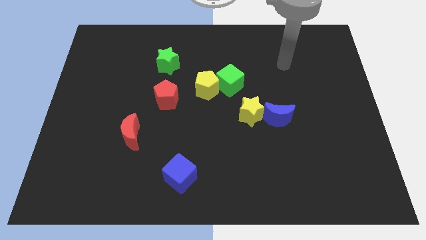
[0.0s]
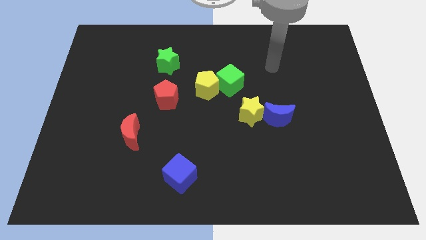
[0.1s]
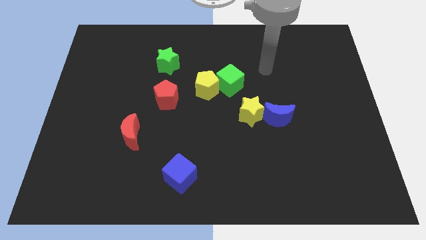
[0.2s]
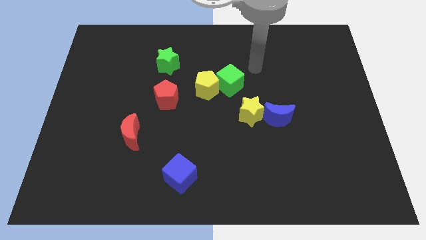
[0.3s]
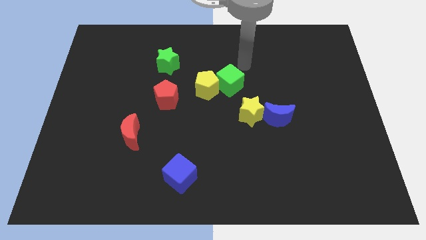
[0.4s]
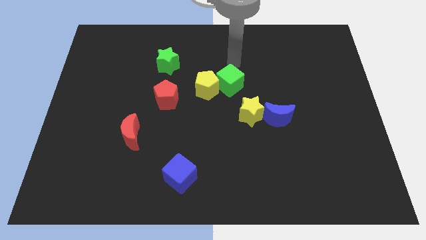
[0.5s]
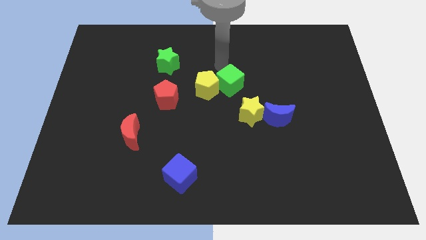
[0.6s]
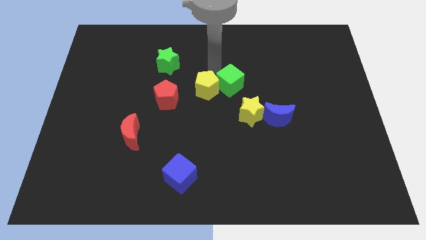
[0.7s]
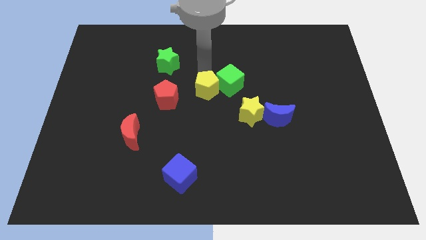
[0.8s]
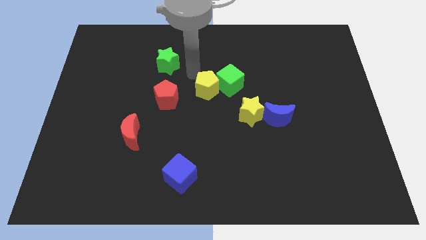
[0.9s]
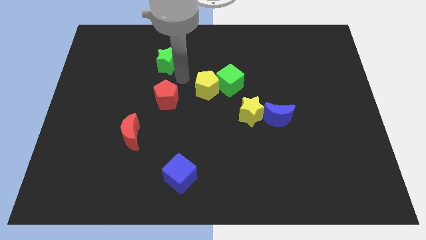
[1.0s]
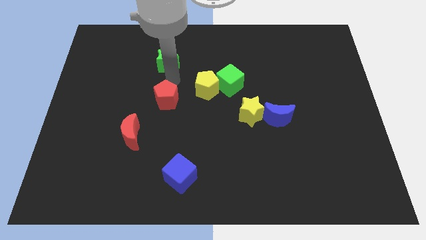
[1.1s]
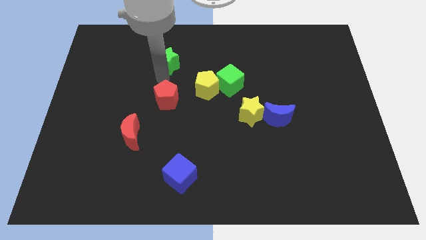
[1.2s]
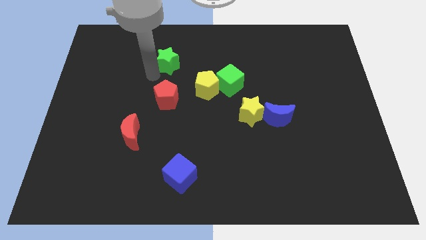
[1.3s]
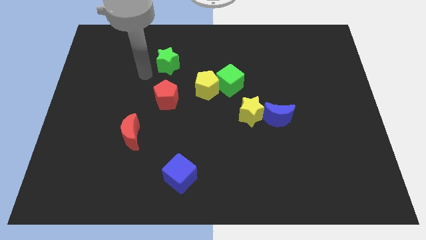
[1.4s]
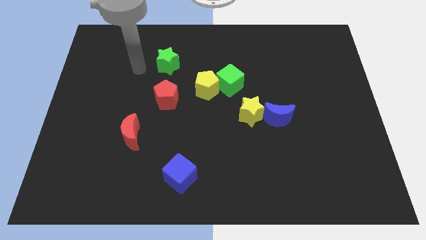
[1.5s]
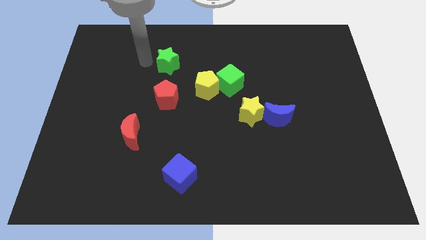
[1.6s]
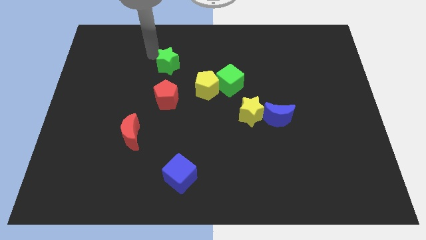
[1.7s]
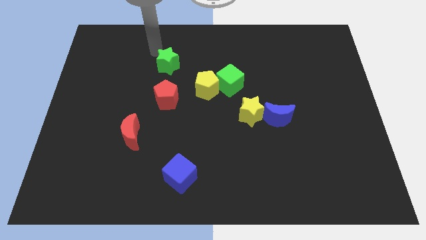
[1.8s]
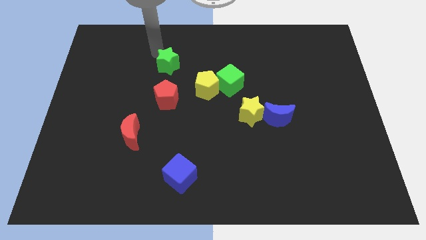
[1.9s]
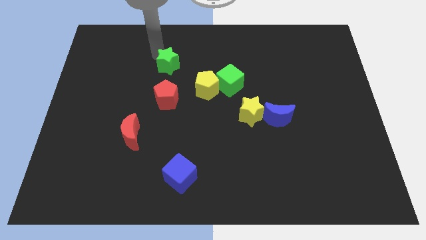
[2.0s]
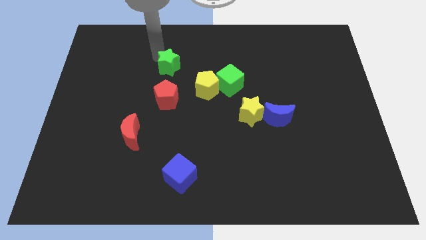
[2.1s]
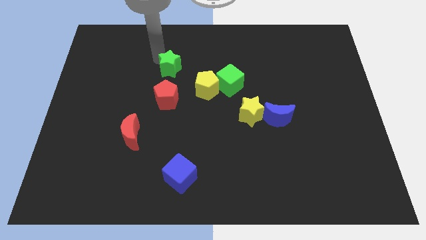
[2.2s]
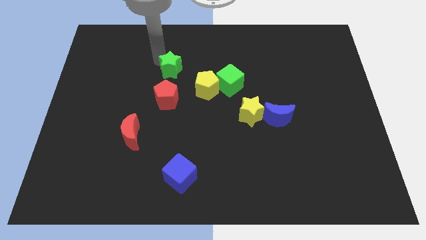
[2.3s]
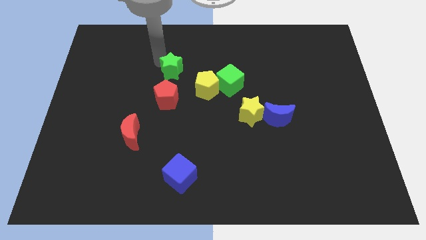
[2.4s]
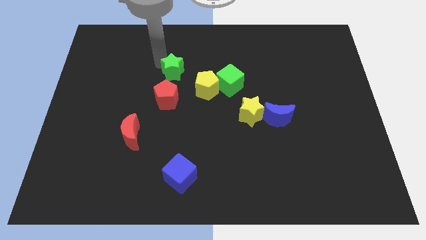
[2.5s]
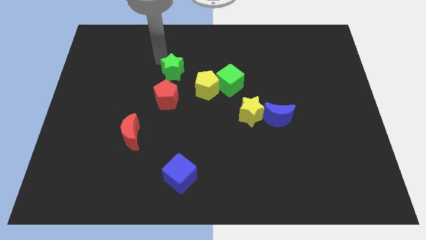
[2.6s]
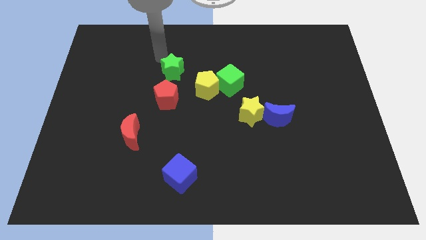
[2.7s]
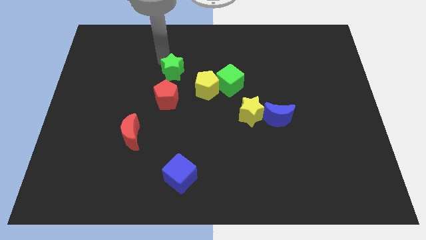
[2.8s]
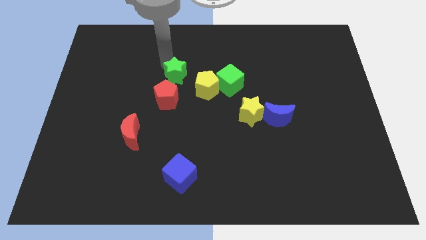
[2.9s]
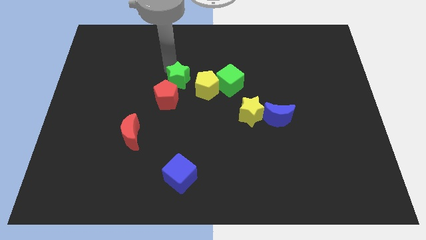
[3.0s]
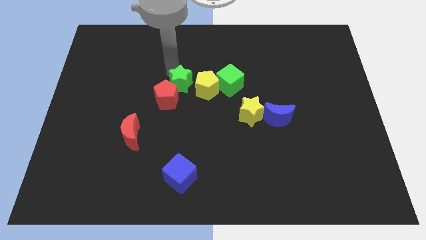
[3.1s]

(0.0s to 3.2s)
slide the green star slightly downwards and to the right

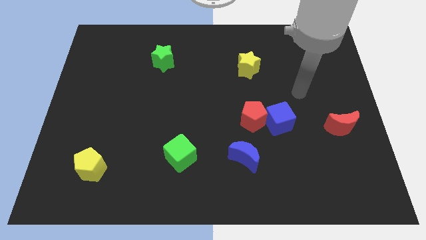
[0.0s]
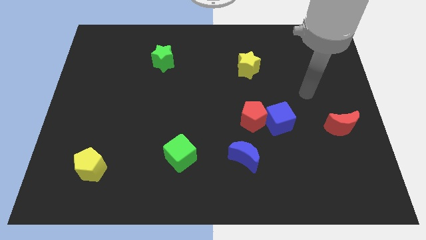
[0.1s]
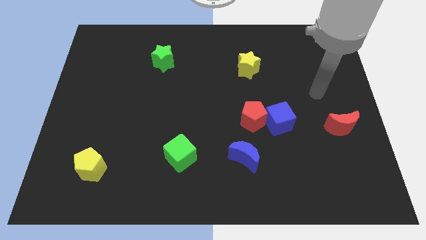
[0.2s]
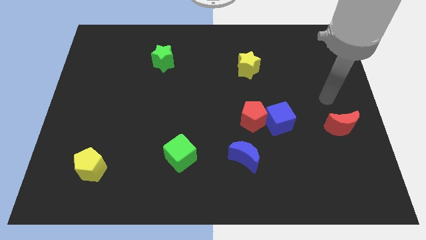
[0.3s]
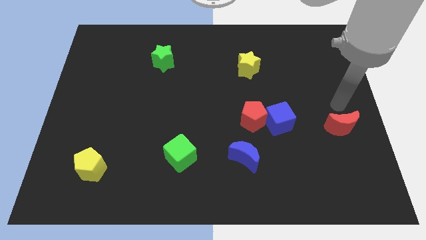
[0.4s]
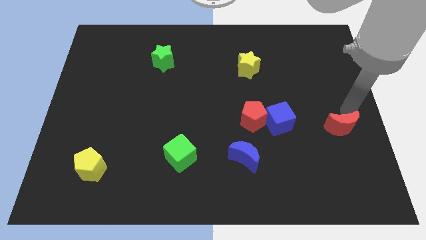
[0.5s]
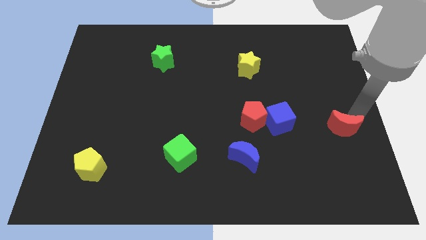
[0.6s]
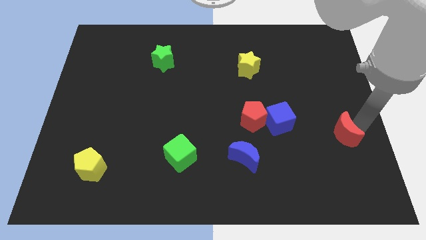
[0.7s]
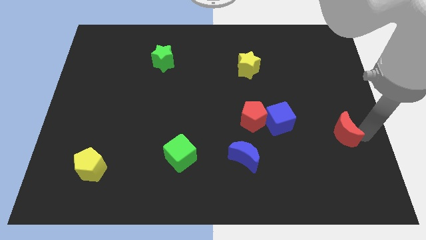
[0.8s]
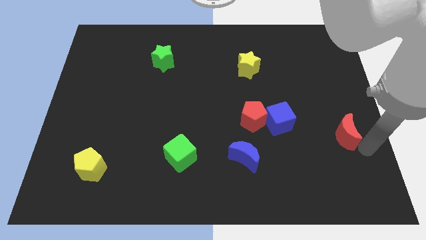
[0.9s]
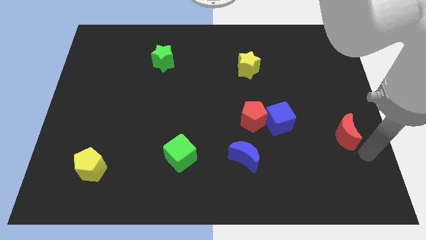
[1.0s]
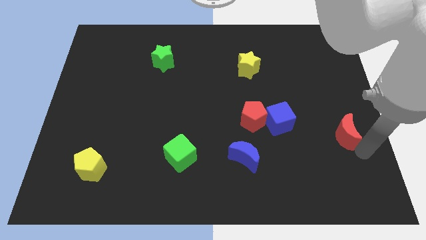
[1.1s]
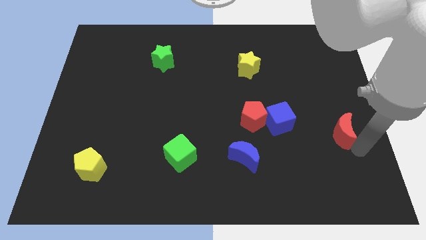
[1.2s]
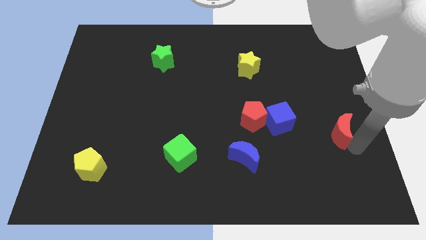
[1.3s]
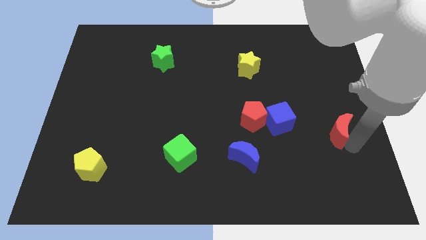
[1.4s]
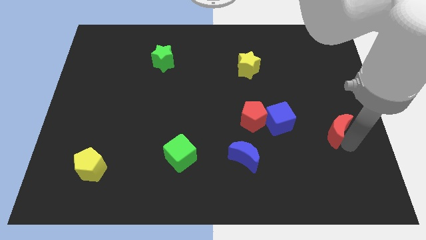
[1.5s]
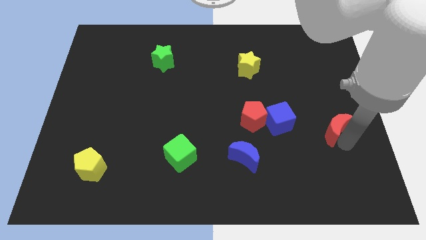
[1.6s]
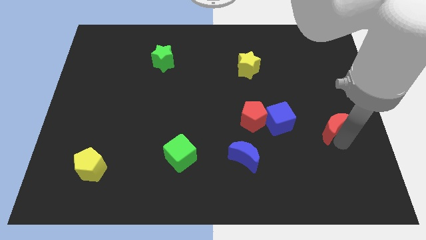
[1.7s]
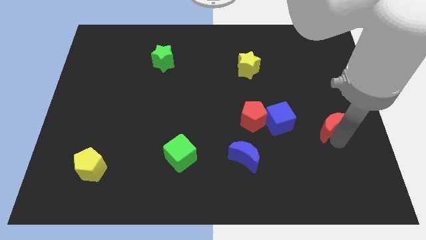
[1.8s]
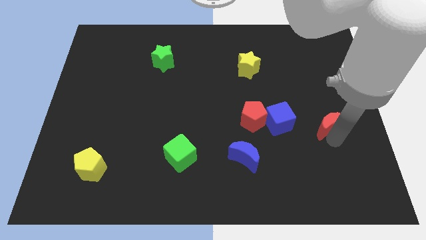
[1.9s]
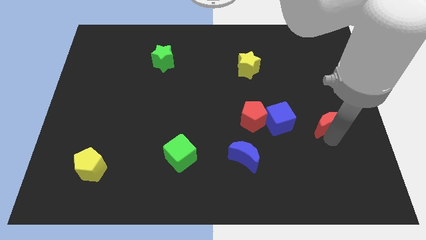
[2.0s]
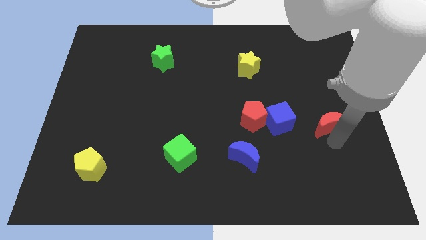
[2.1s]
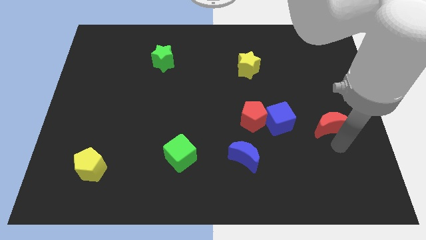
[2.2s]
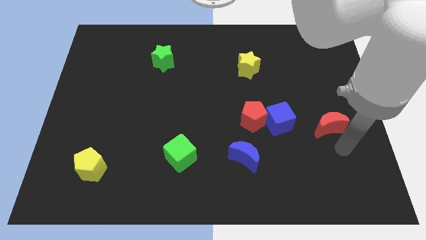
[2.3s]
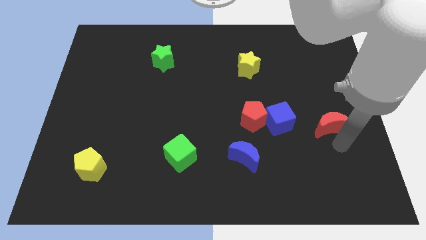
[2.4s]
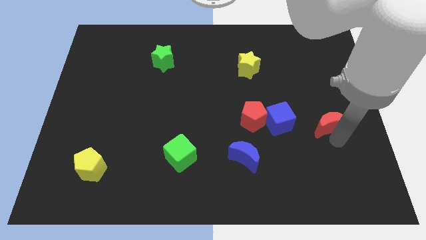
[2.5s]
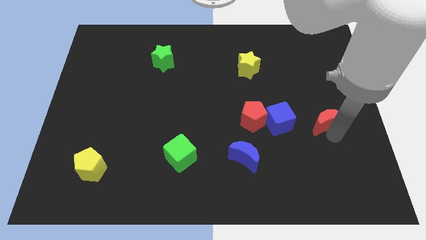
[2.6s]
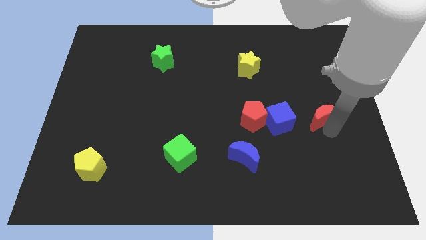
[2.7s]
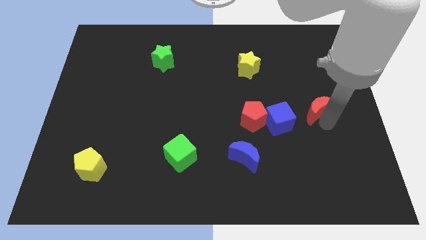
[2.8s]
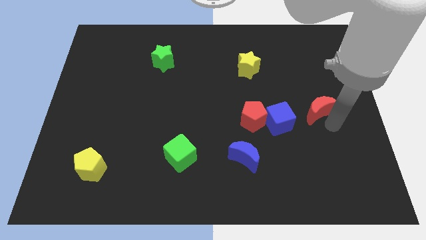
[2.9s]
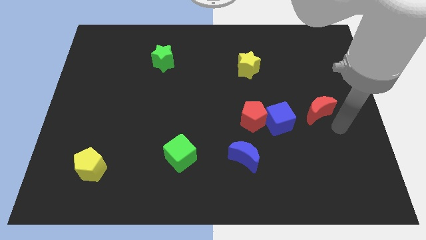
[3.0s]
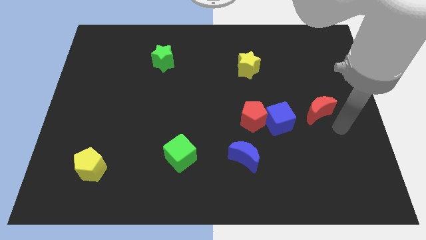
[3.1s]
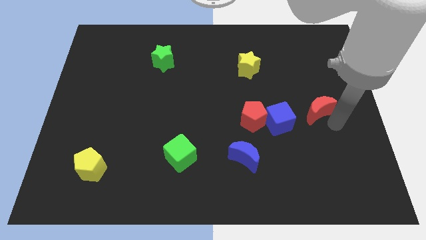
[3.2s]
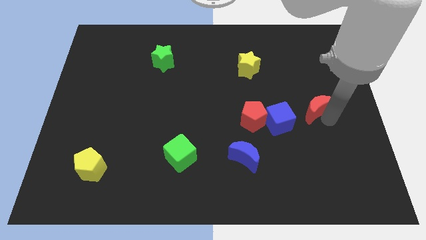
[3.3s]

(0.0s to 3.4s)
slightly move the red moon upwards and to the left diagonally

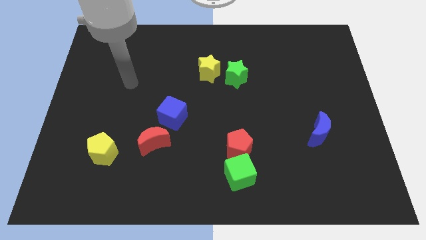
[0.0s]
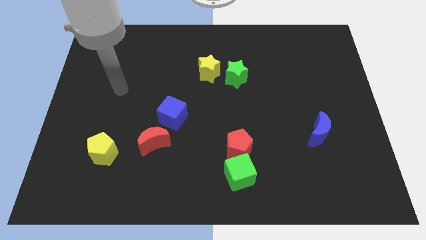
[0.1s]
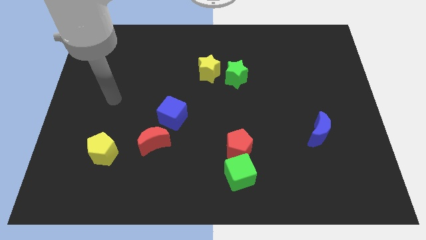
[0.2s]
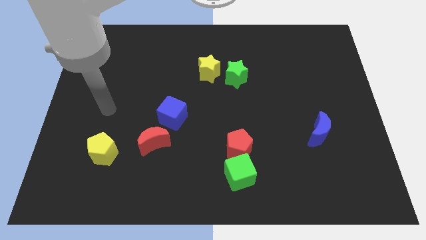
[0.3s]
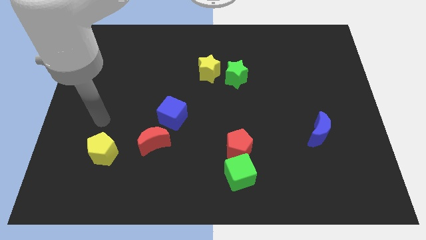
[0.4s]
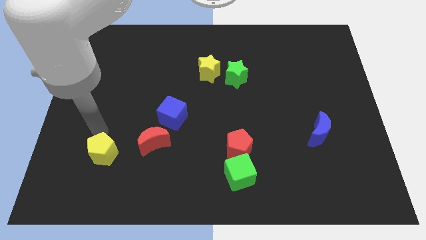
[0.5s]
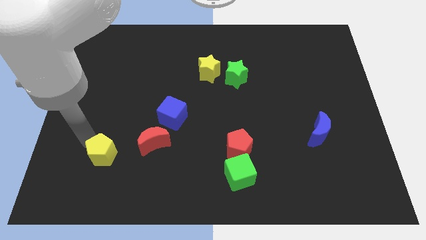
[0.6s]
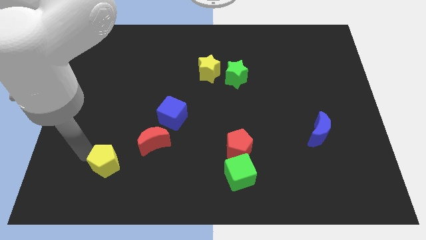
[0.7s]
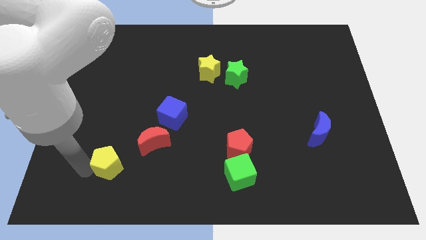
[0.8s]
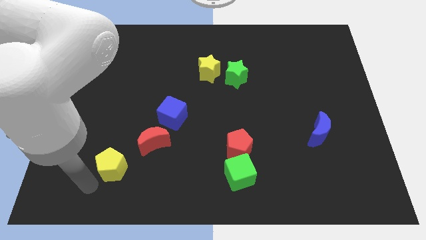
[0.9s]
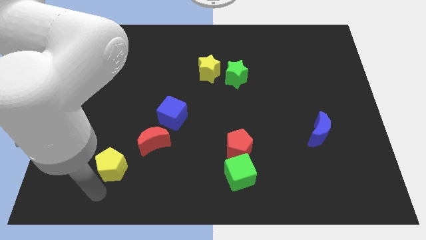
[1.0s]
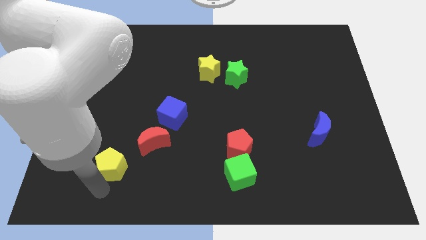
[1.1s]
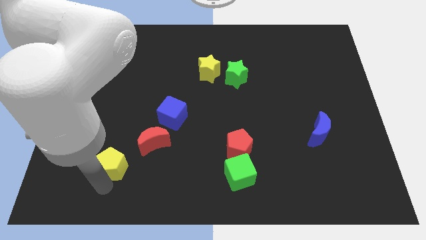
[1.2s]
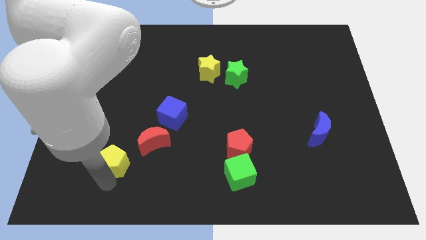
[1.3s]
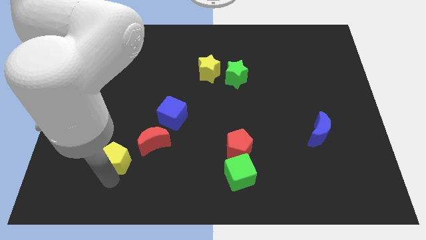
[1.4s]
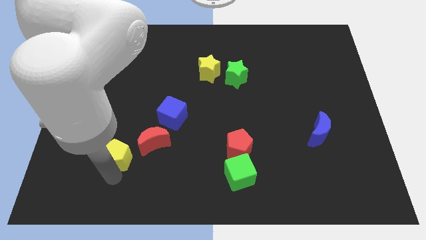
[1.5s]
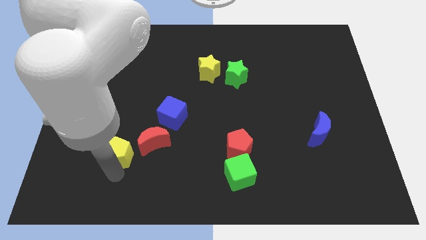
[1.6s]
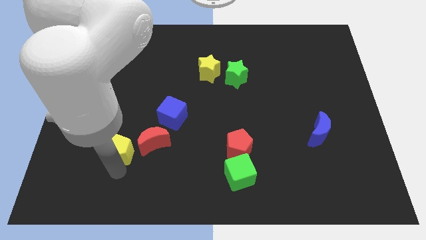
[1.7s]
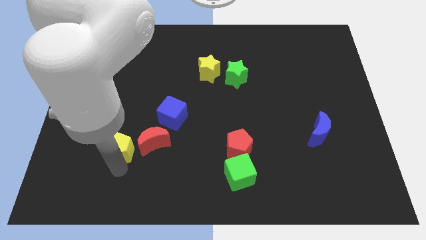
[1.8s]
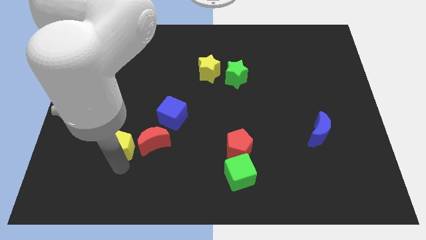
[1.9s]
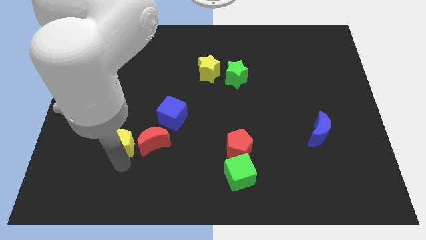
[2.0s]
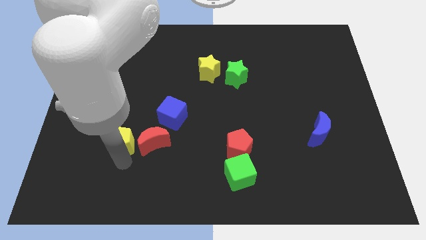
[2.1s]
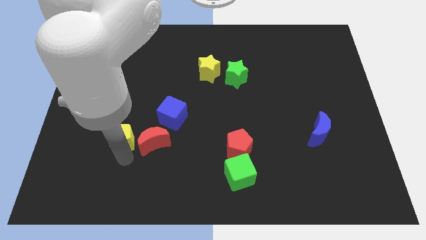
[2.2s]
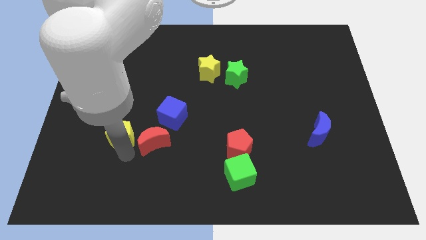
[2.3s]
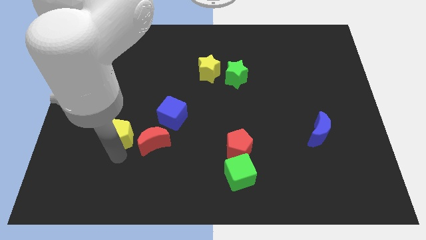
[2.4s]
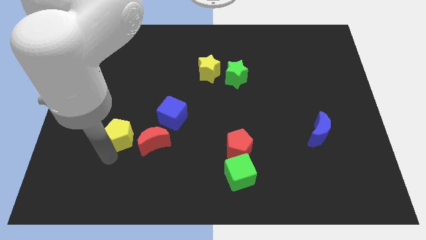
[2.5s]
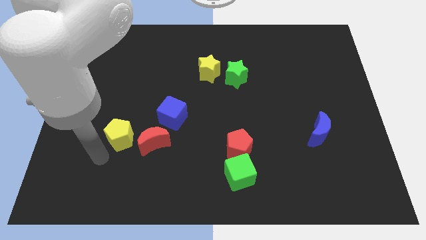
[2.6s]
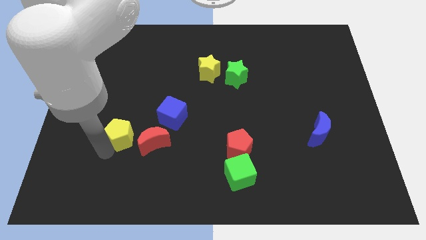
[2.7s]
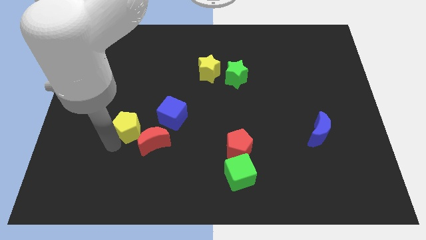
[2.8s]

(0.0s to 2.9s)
move the yellow pentagon diagonally up and right a little
